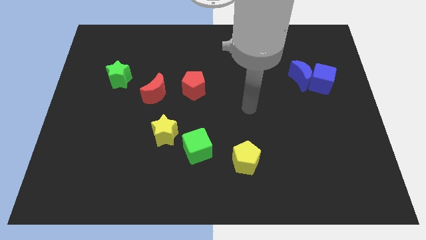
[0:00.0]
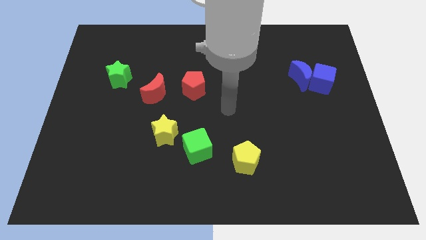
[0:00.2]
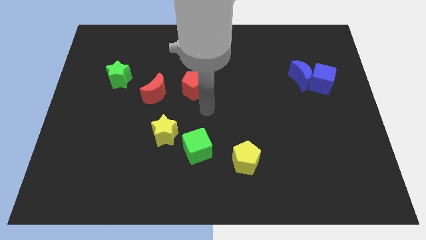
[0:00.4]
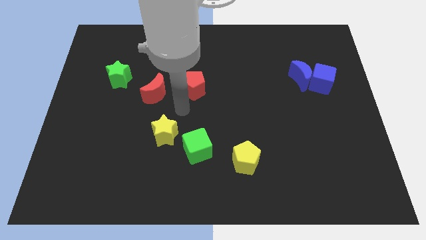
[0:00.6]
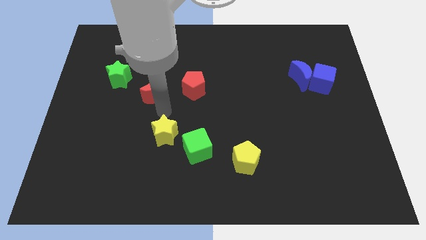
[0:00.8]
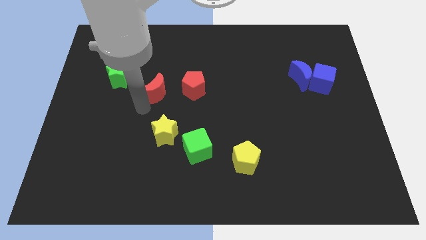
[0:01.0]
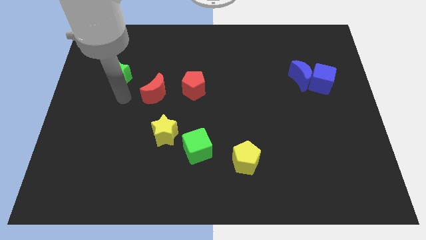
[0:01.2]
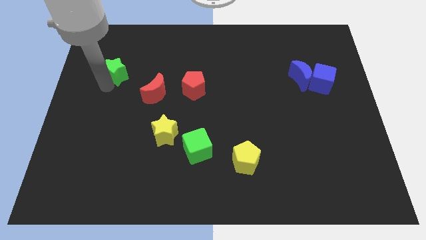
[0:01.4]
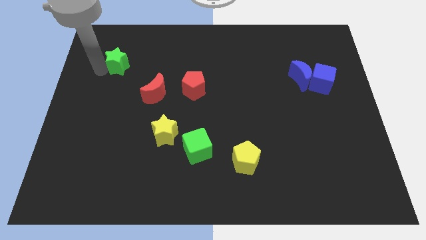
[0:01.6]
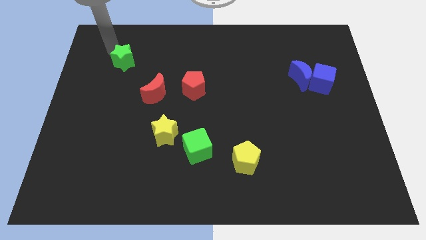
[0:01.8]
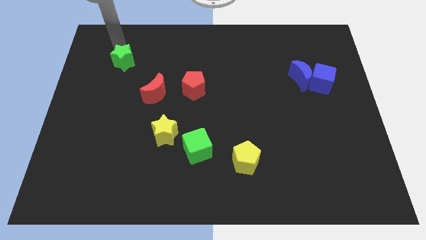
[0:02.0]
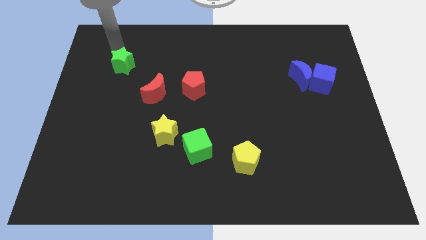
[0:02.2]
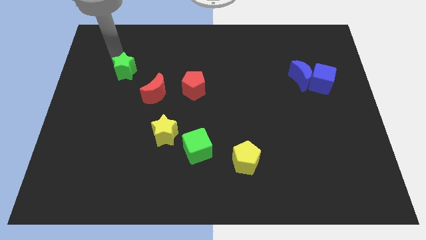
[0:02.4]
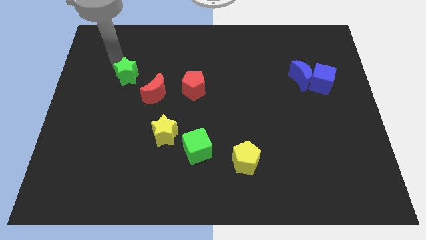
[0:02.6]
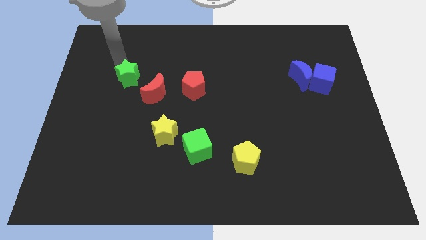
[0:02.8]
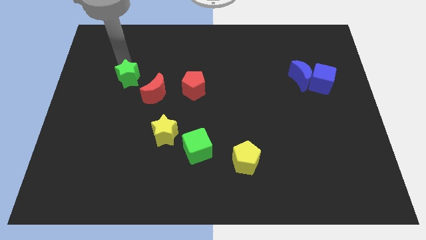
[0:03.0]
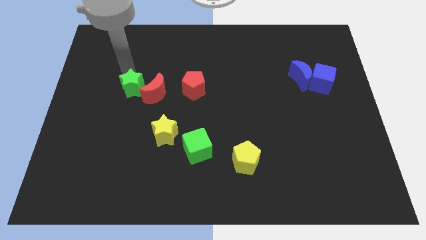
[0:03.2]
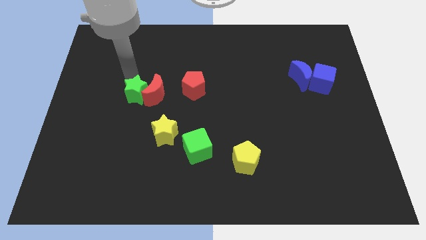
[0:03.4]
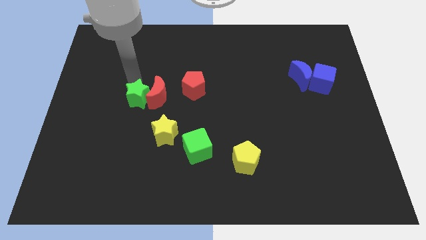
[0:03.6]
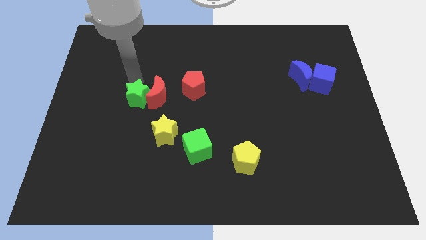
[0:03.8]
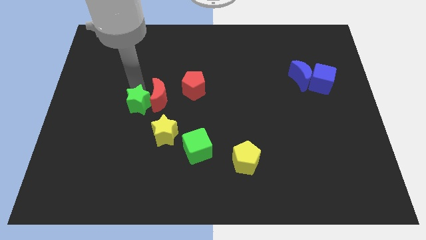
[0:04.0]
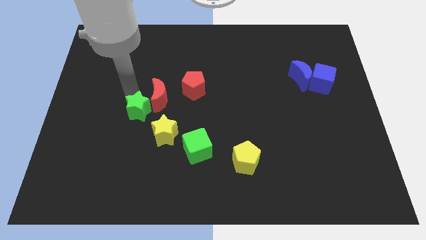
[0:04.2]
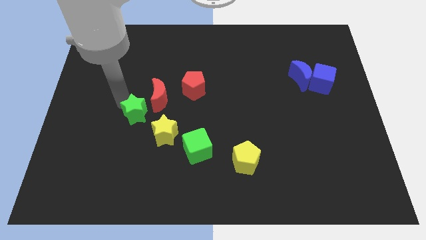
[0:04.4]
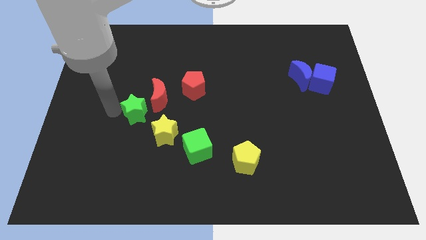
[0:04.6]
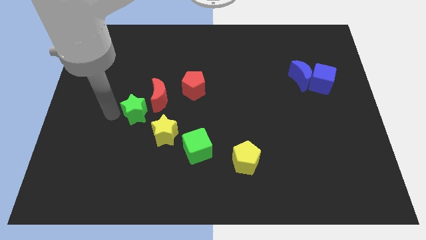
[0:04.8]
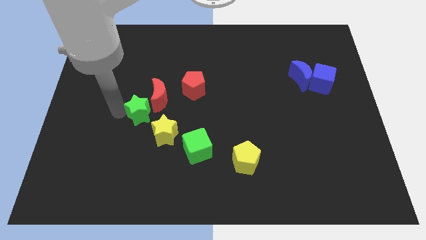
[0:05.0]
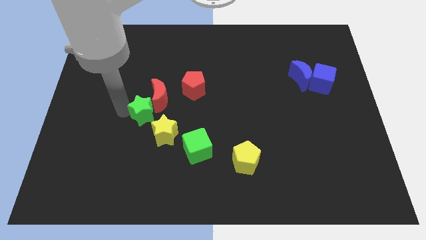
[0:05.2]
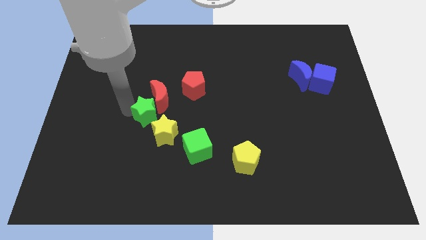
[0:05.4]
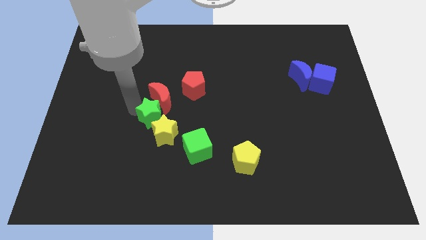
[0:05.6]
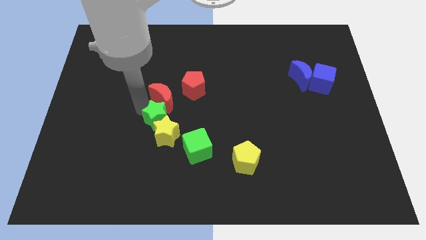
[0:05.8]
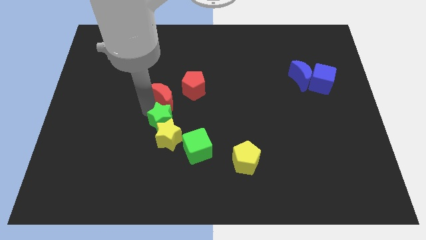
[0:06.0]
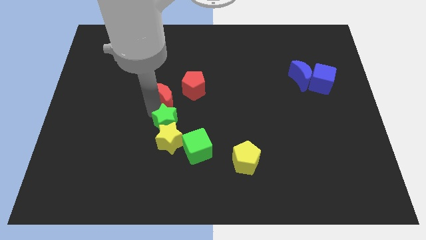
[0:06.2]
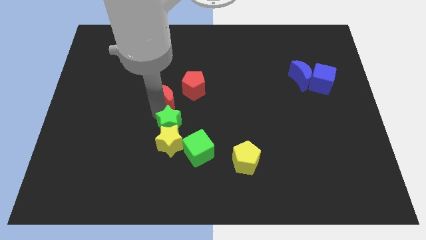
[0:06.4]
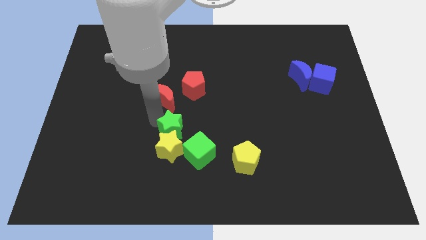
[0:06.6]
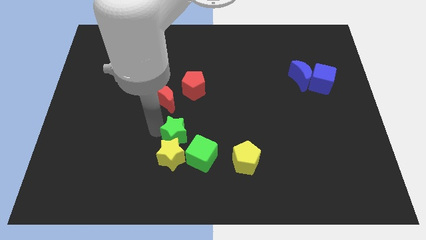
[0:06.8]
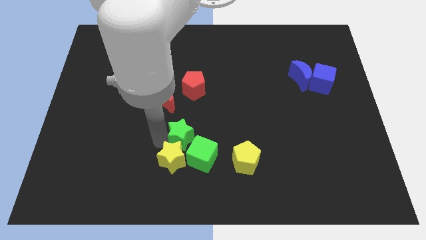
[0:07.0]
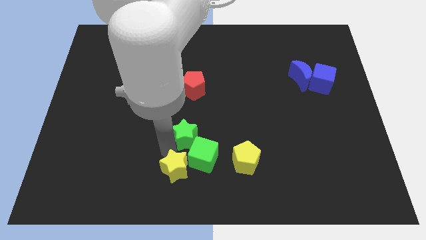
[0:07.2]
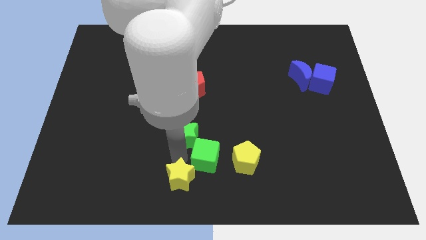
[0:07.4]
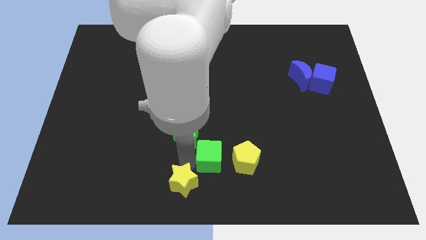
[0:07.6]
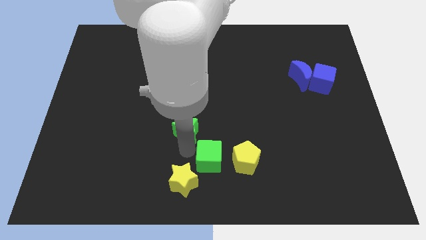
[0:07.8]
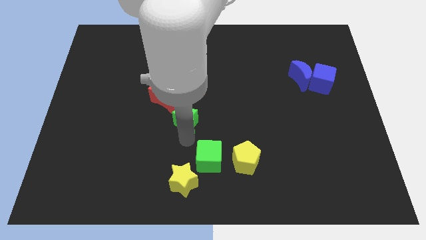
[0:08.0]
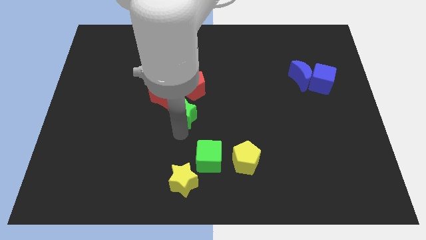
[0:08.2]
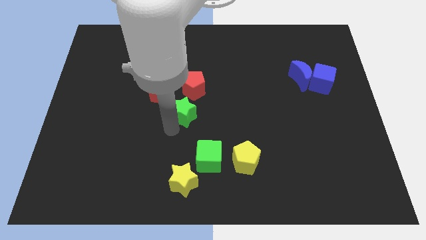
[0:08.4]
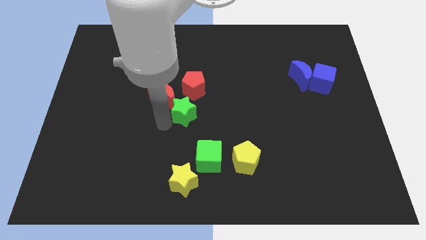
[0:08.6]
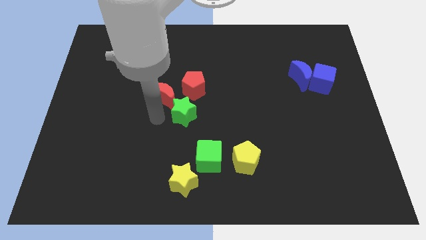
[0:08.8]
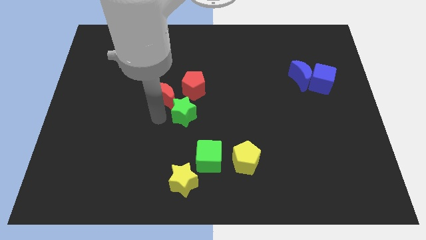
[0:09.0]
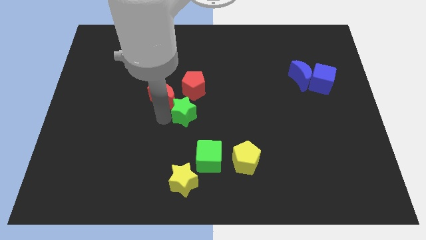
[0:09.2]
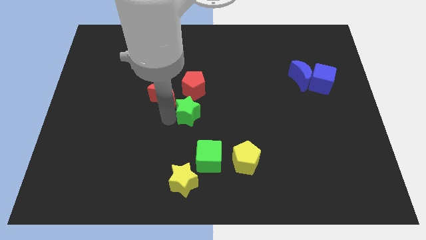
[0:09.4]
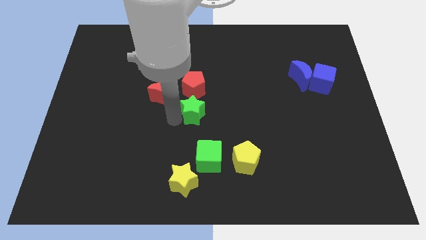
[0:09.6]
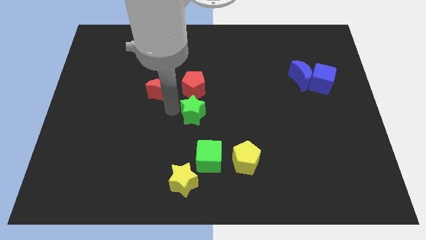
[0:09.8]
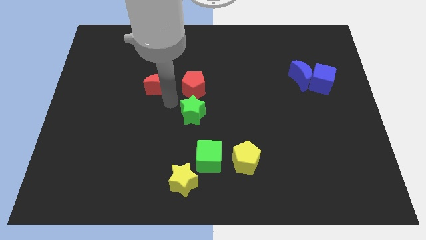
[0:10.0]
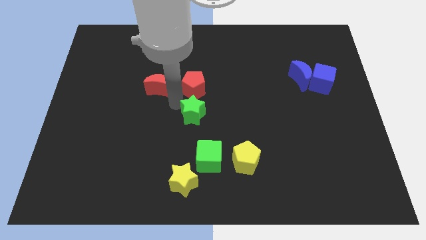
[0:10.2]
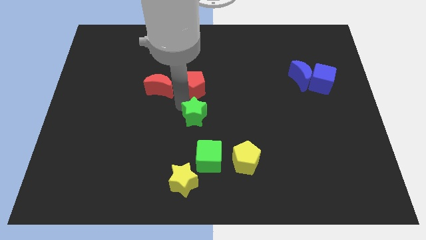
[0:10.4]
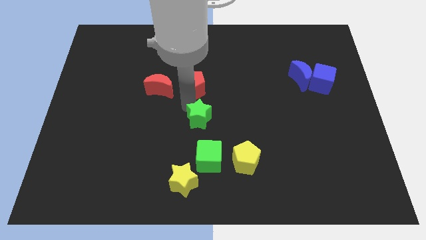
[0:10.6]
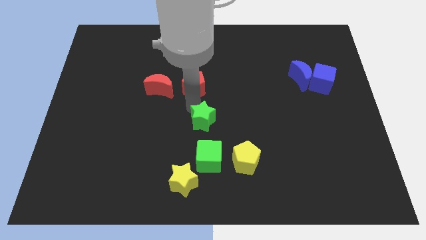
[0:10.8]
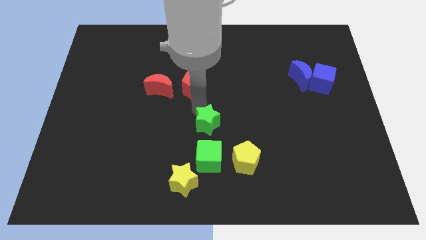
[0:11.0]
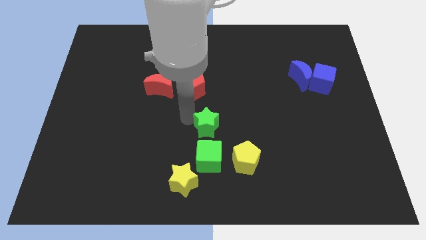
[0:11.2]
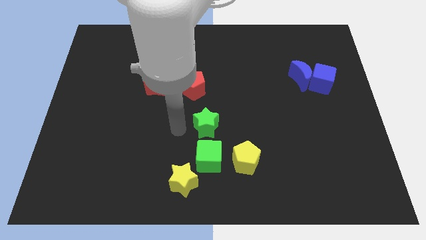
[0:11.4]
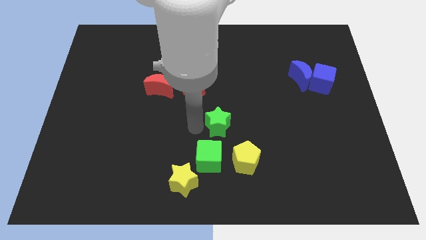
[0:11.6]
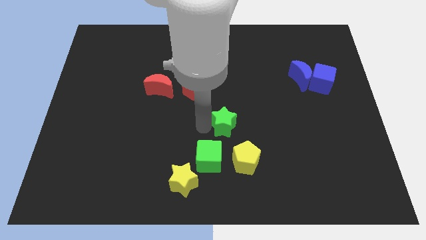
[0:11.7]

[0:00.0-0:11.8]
slide the green star to the top of the yellow pentagon

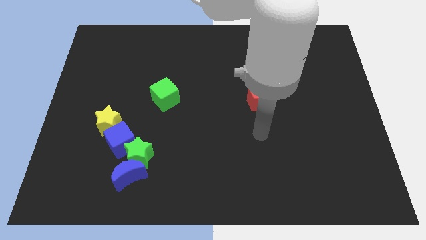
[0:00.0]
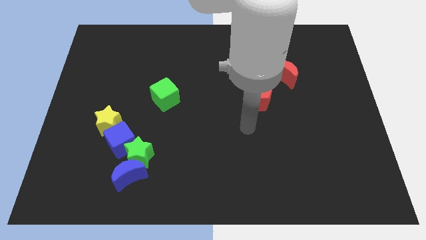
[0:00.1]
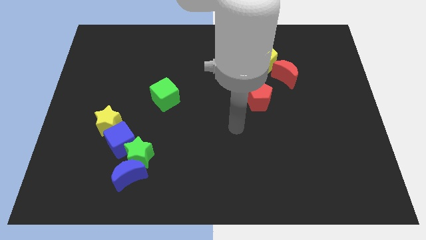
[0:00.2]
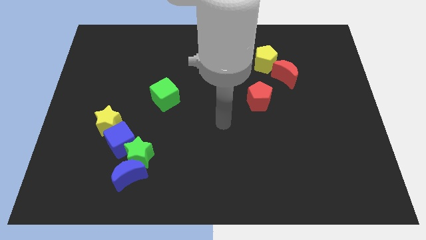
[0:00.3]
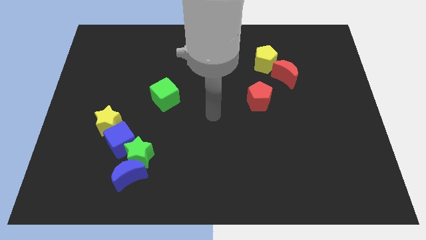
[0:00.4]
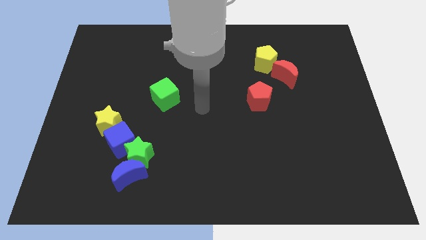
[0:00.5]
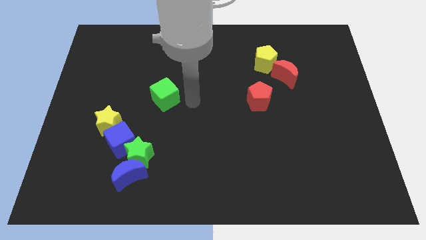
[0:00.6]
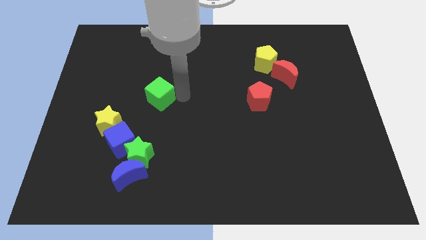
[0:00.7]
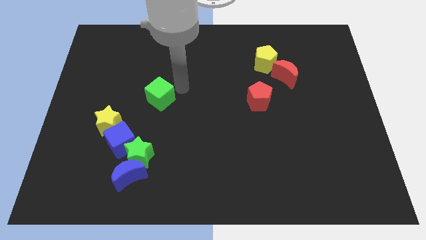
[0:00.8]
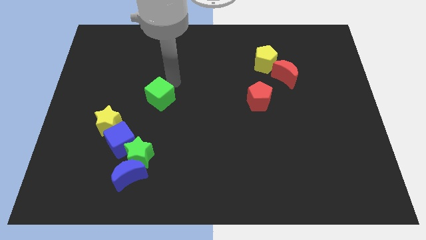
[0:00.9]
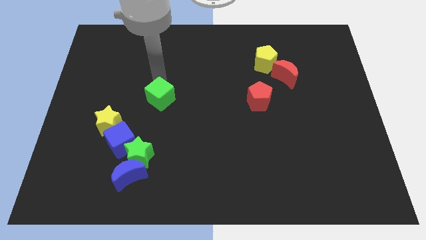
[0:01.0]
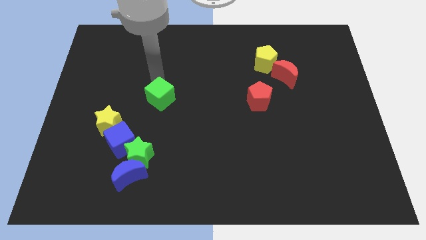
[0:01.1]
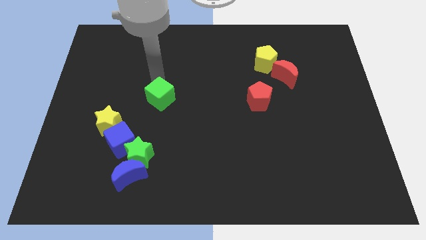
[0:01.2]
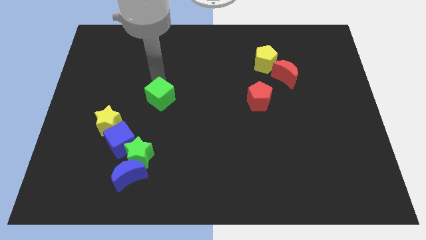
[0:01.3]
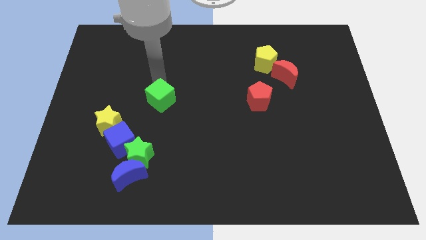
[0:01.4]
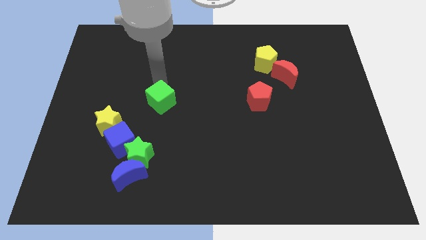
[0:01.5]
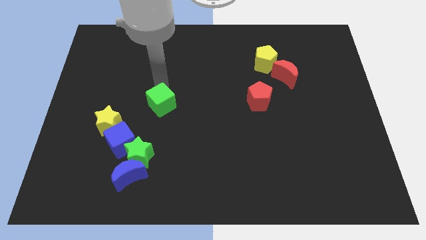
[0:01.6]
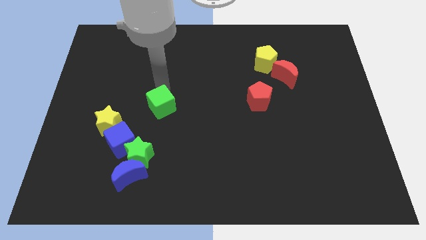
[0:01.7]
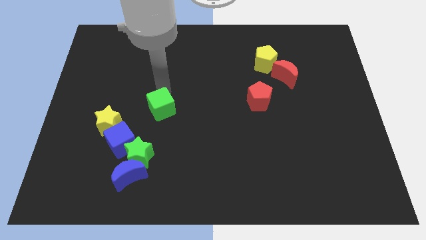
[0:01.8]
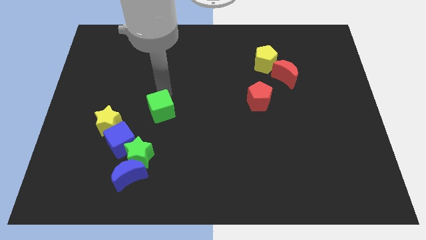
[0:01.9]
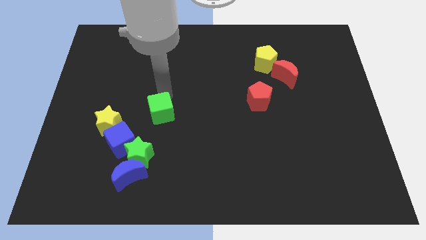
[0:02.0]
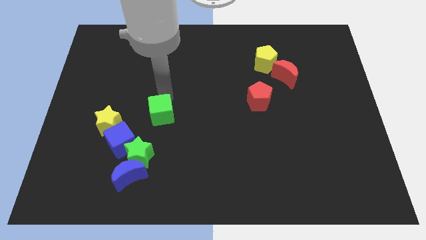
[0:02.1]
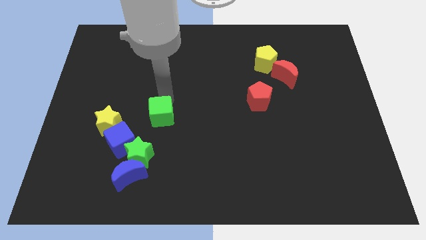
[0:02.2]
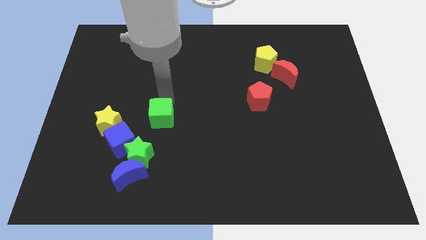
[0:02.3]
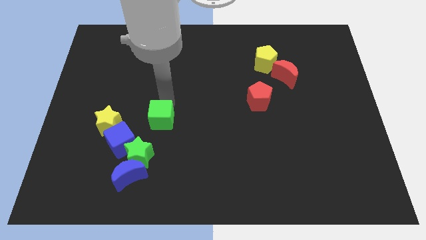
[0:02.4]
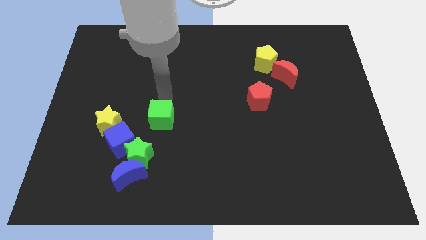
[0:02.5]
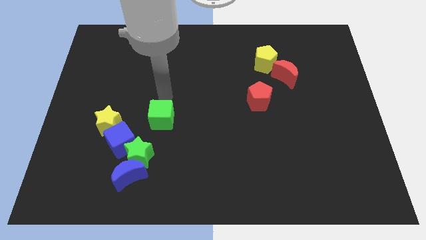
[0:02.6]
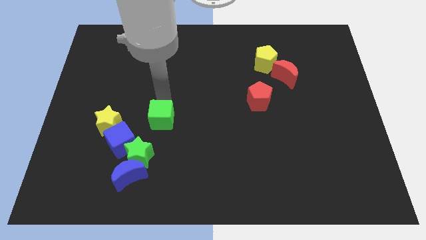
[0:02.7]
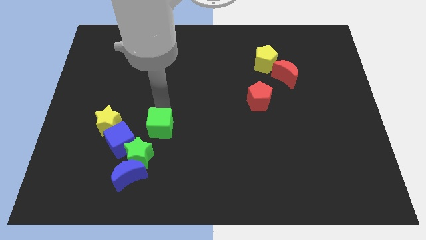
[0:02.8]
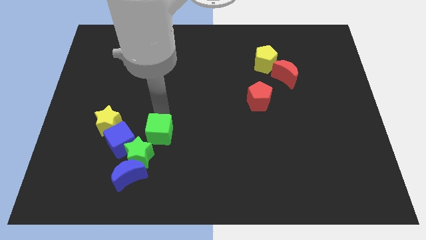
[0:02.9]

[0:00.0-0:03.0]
put the green cube to the top right of the blue moon
